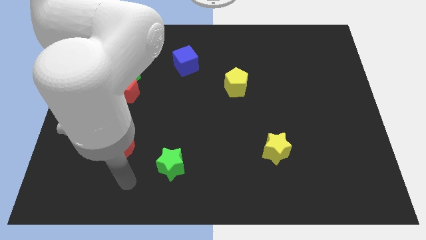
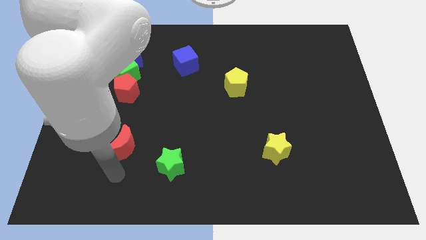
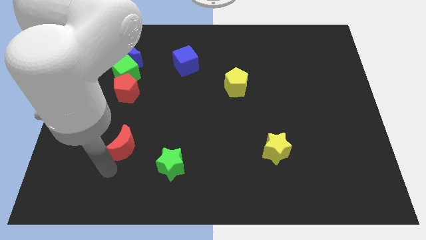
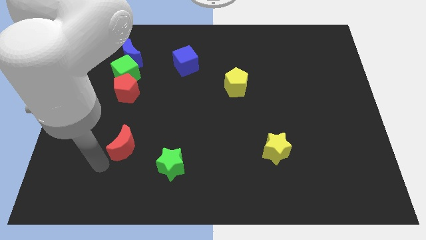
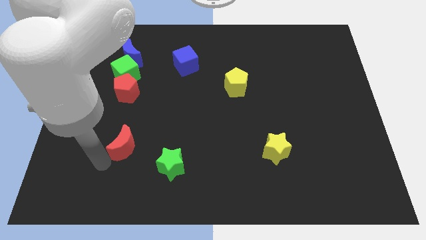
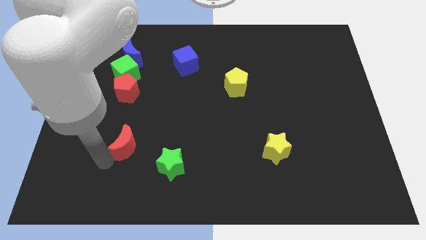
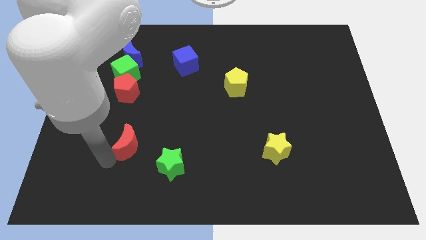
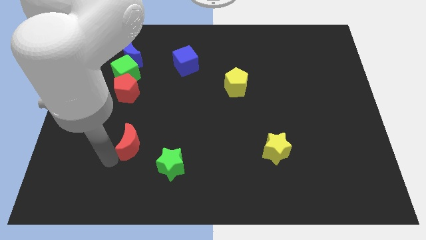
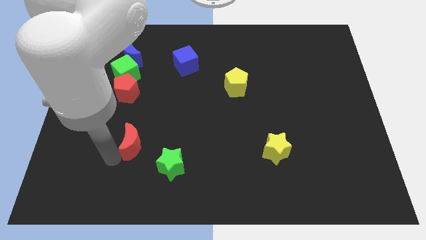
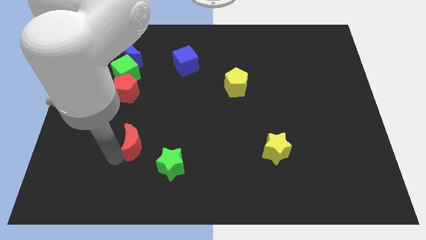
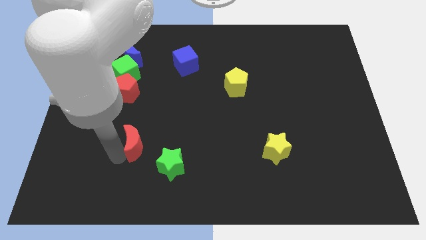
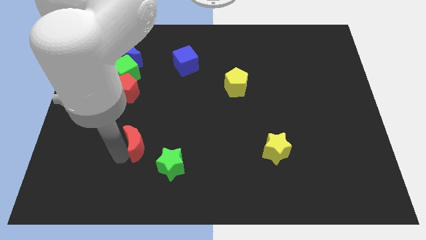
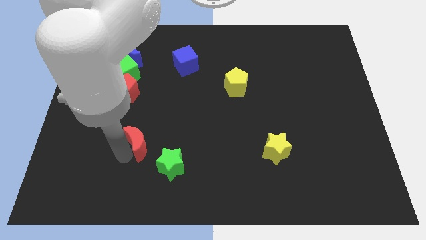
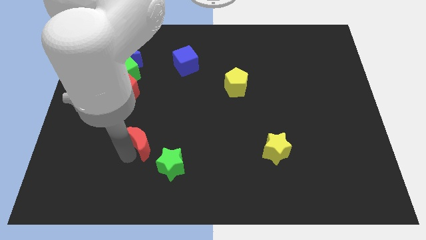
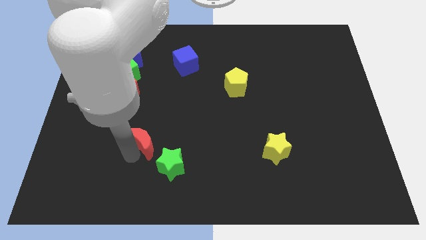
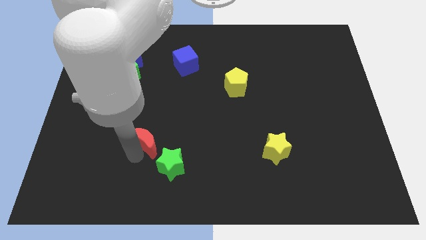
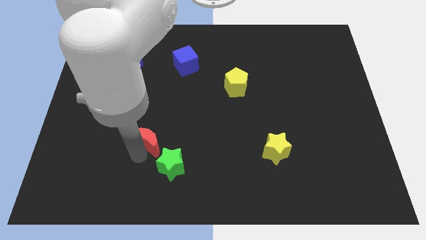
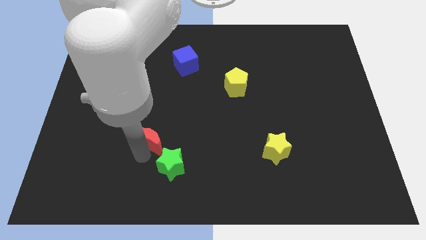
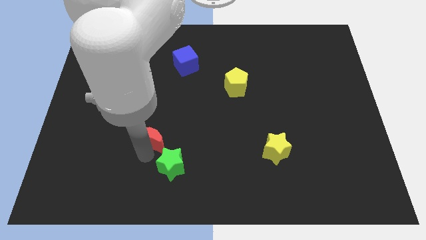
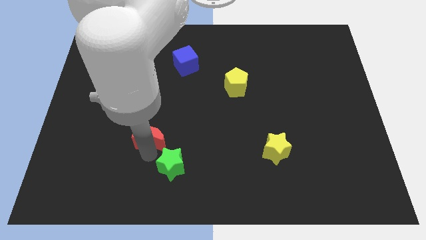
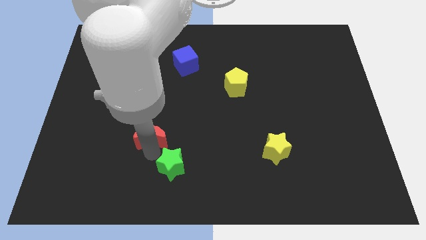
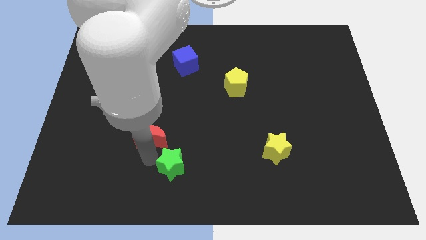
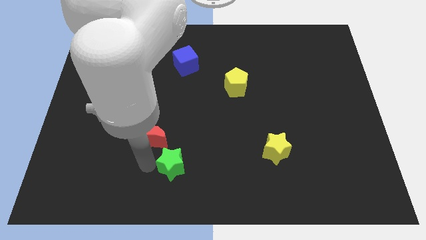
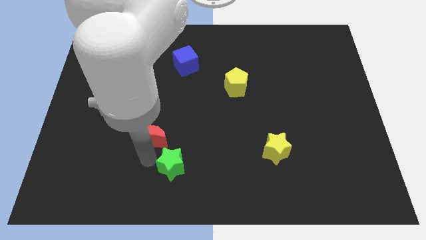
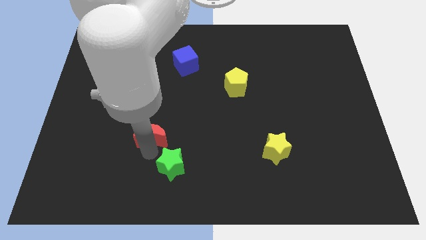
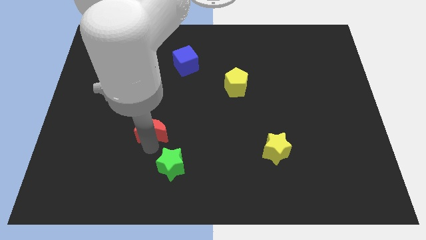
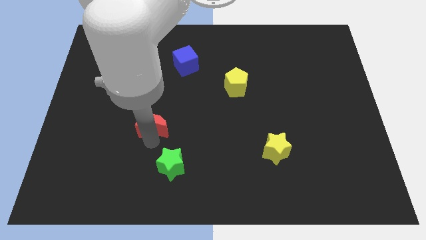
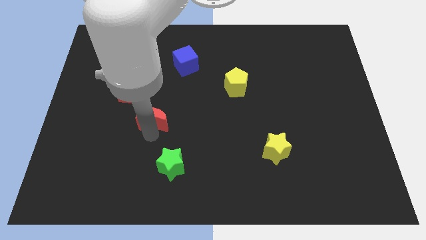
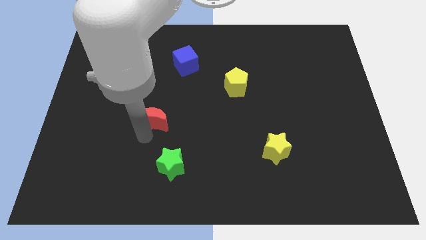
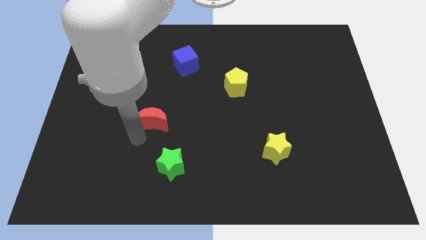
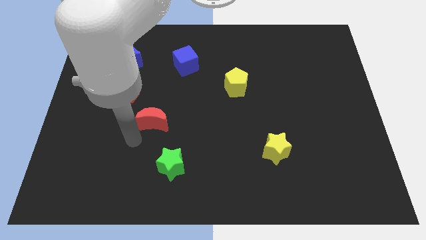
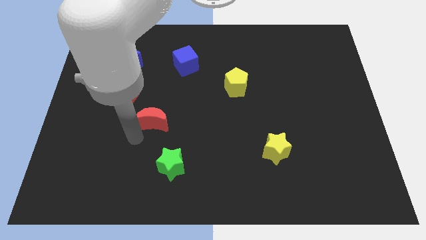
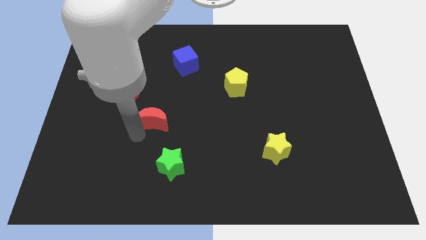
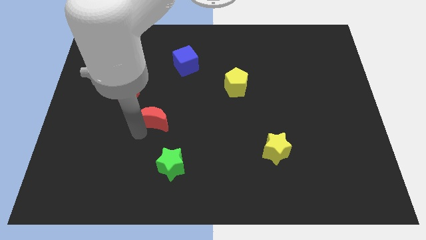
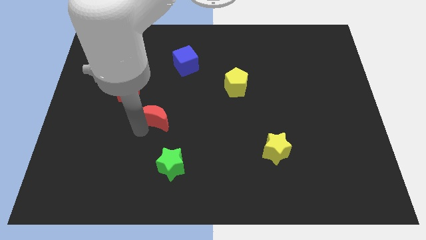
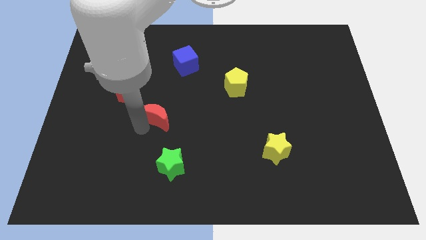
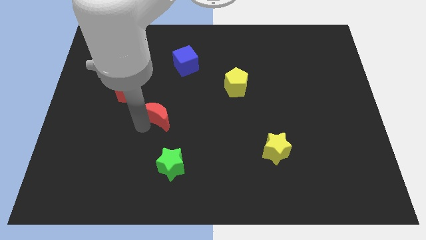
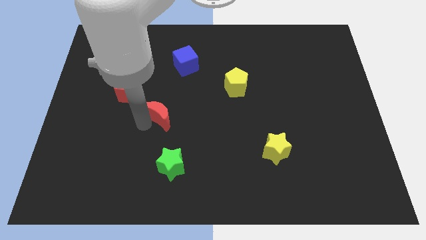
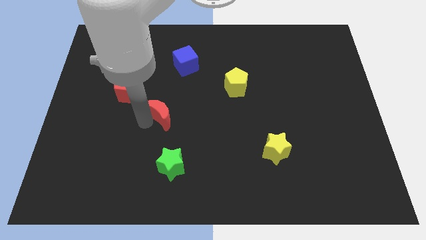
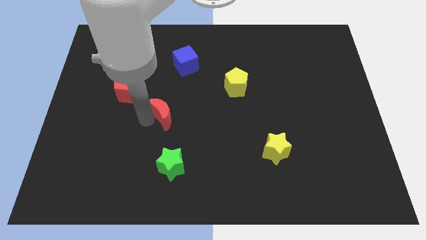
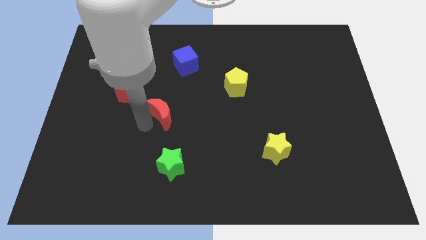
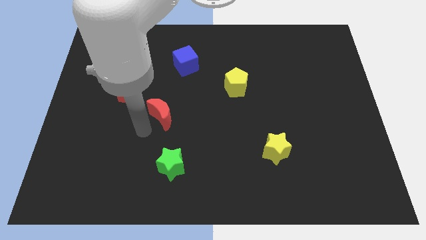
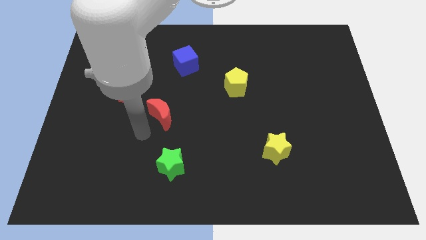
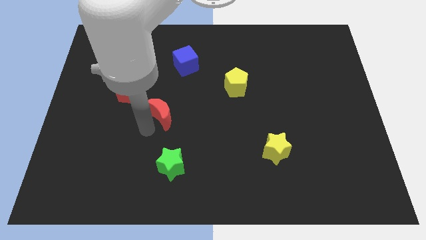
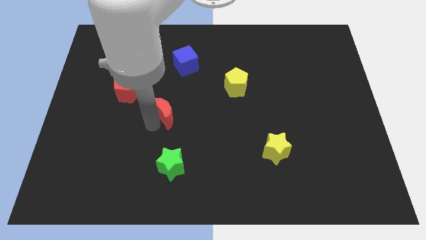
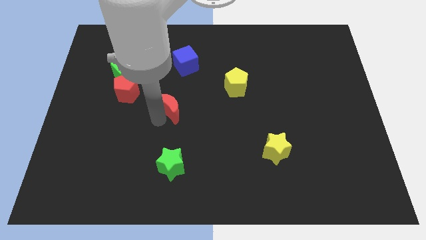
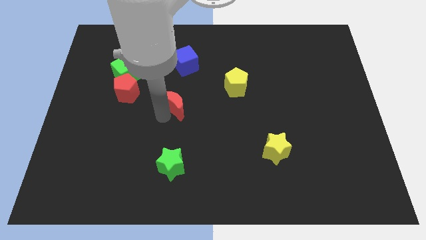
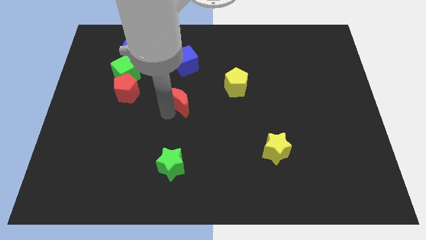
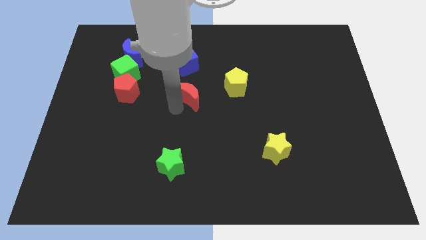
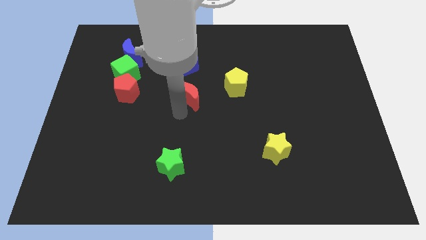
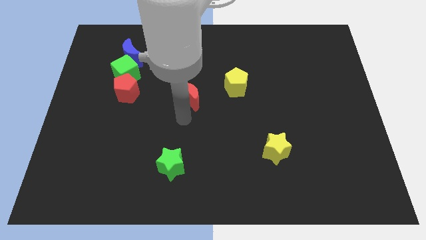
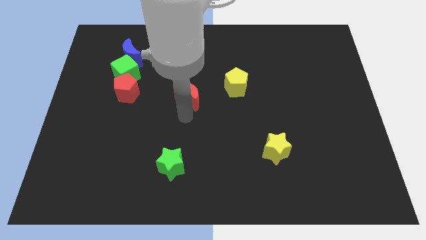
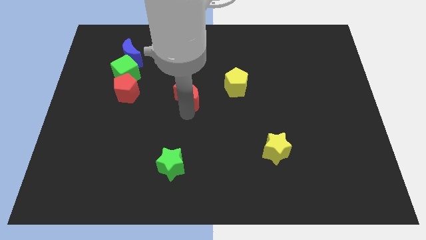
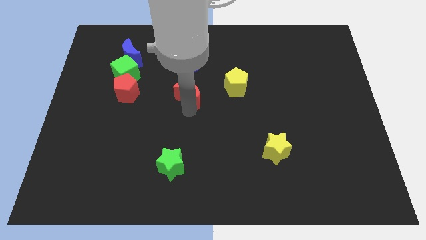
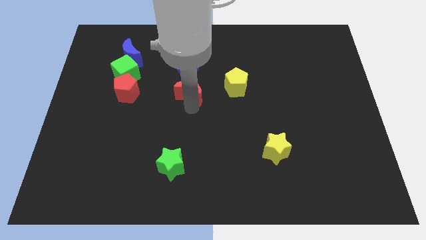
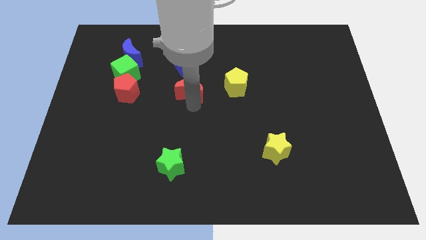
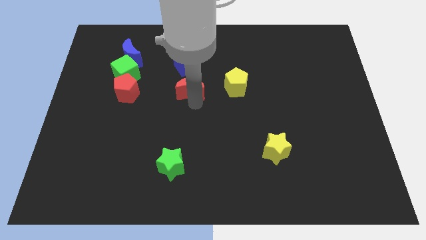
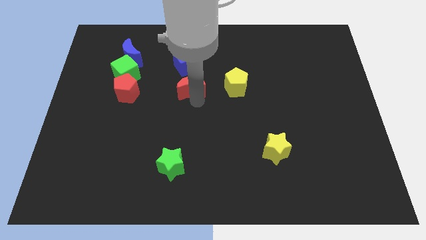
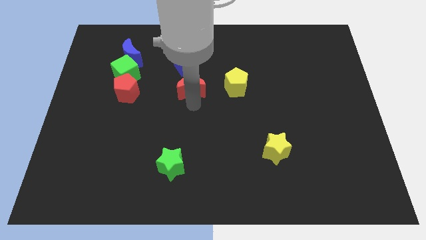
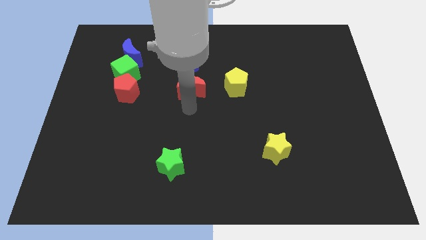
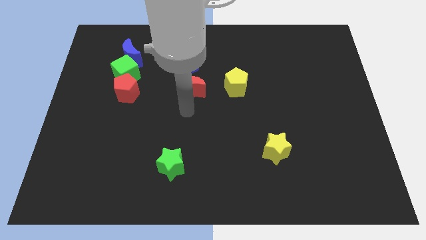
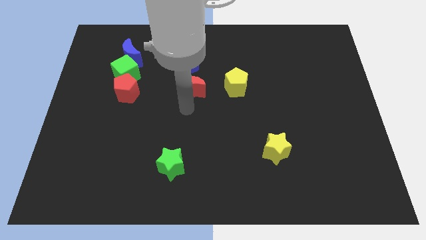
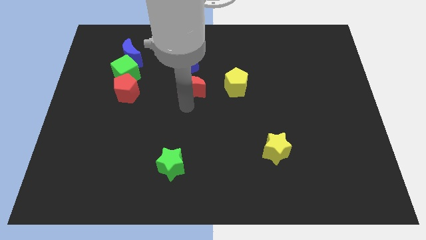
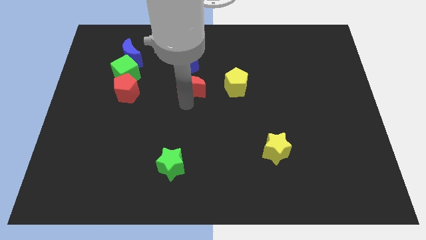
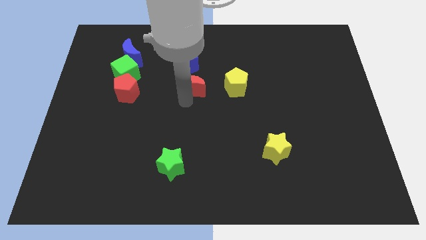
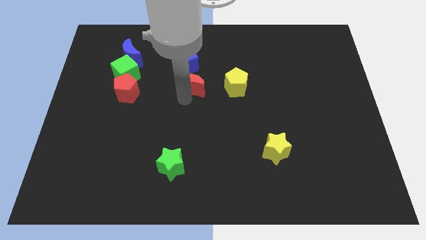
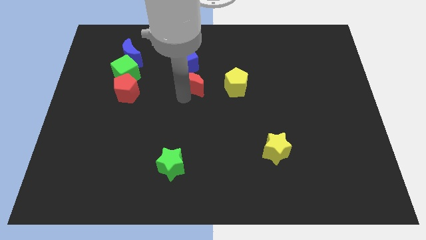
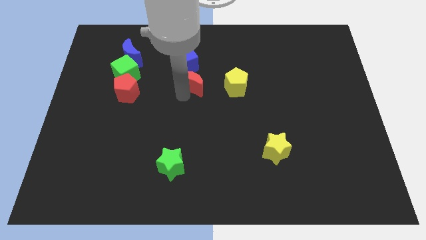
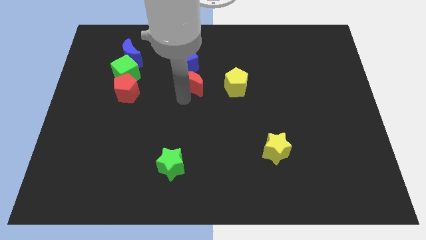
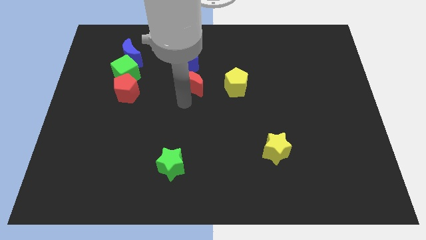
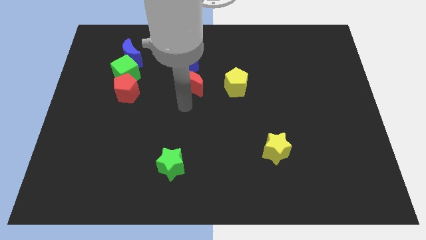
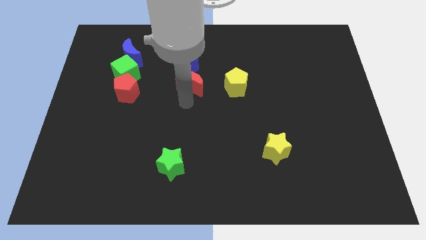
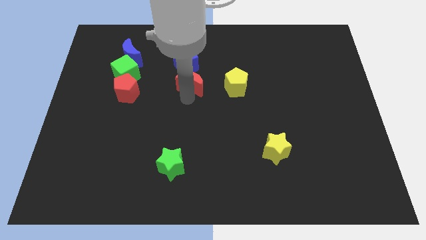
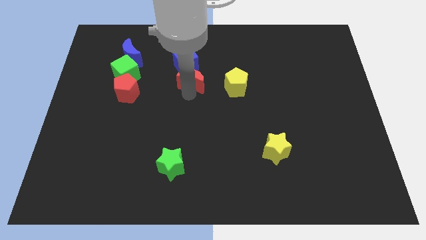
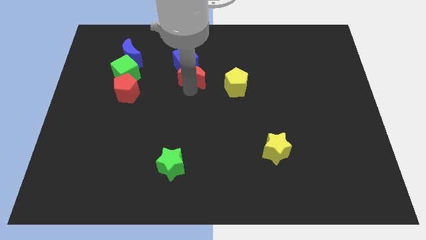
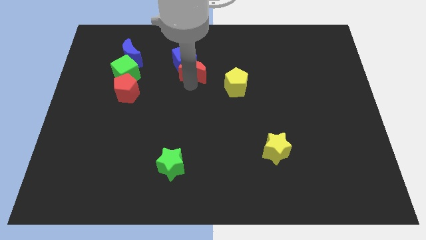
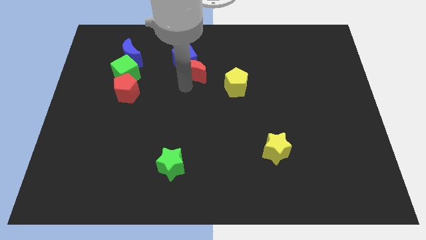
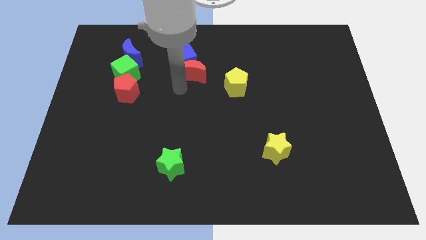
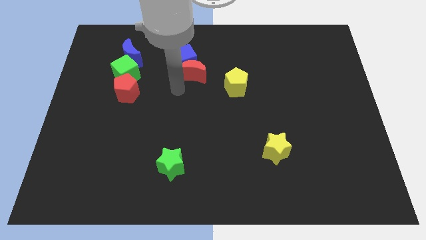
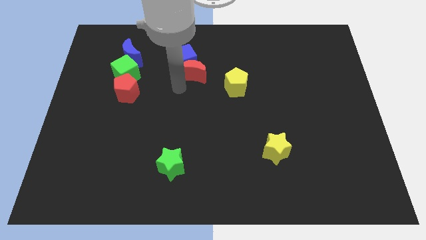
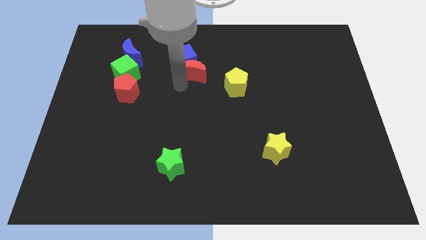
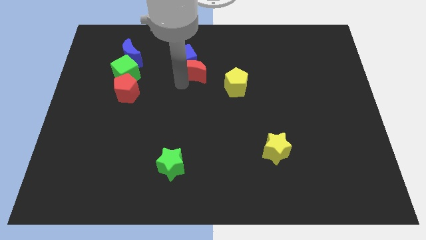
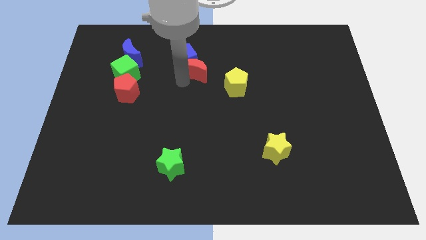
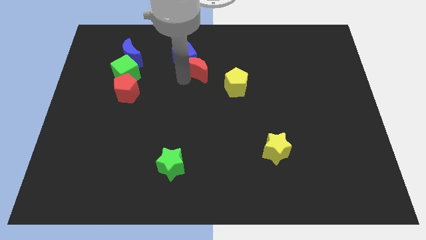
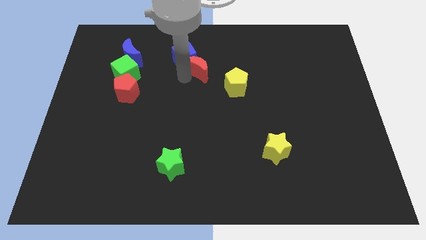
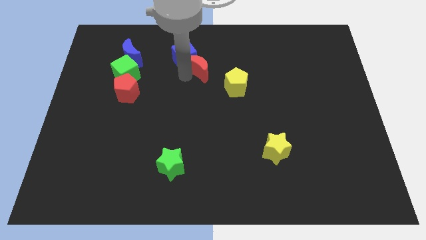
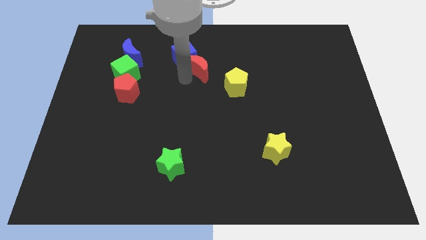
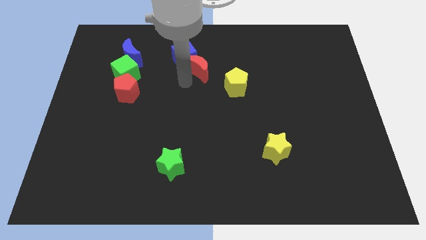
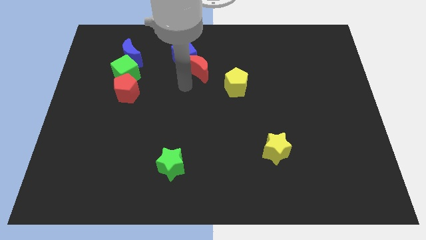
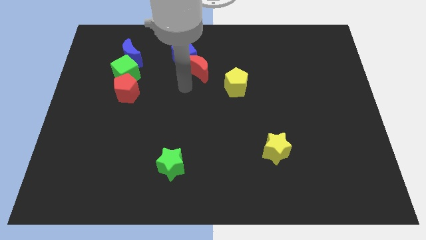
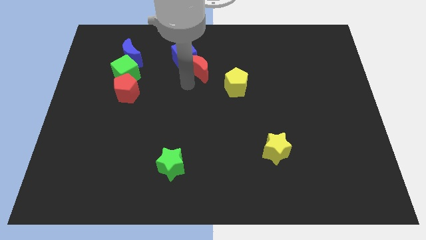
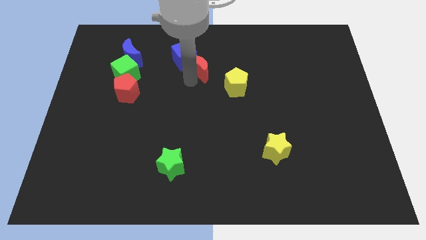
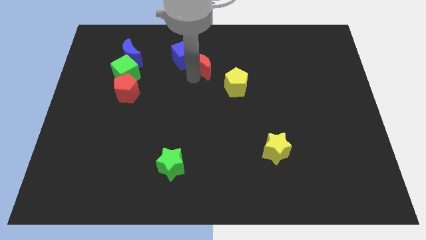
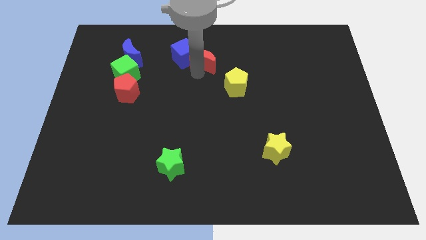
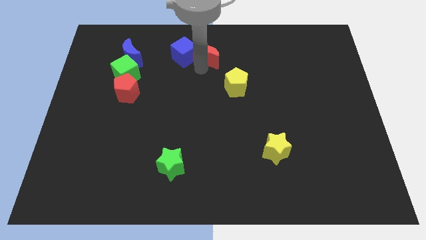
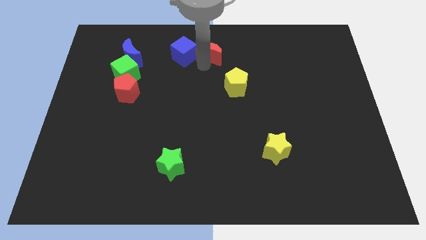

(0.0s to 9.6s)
slide the red moon to the towards your base
